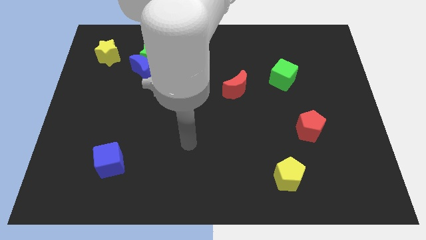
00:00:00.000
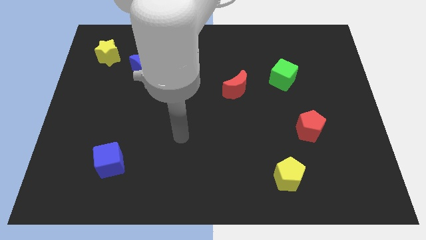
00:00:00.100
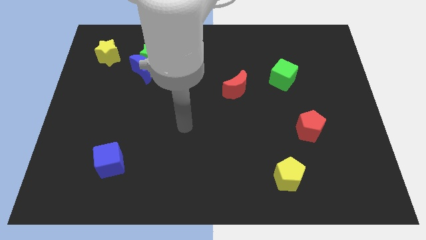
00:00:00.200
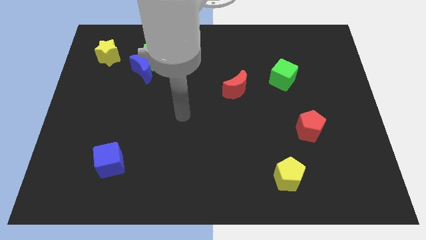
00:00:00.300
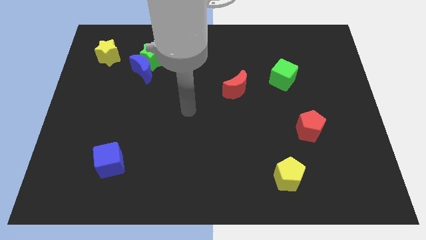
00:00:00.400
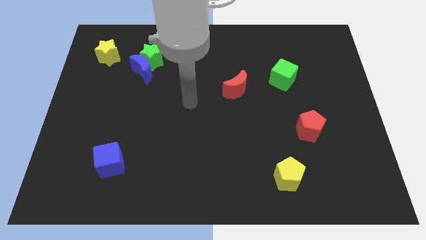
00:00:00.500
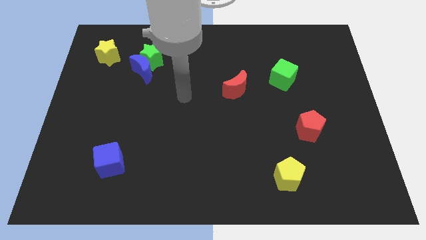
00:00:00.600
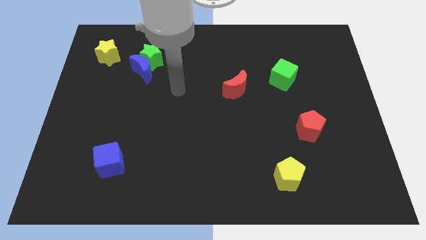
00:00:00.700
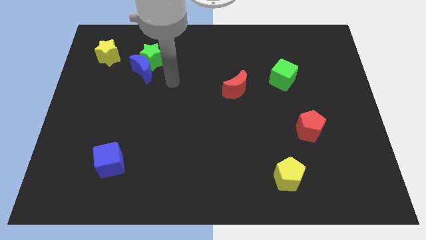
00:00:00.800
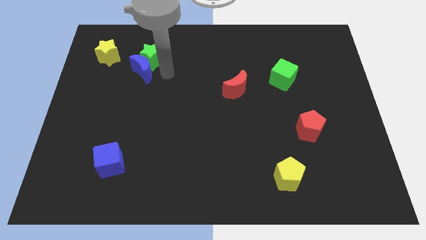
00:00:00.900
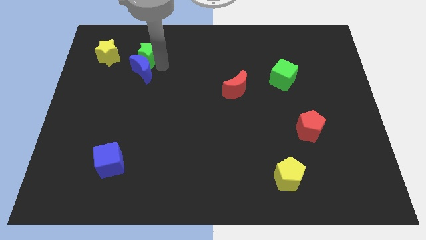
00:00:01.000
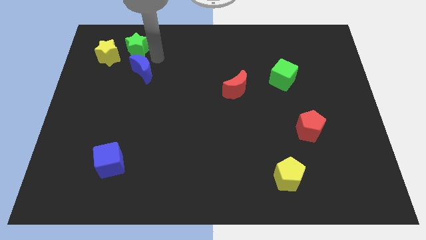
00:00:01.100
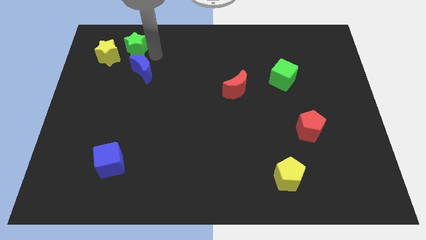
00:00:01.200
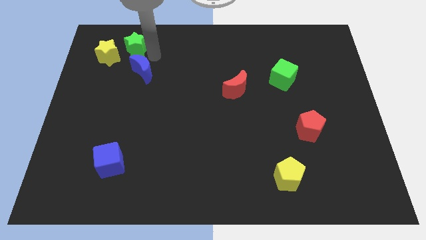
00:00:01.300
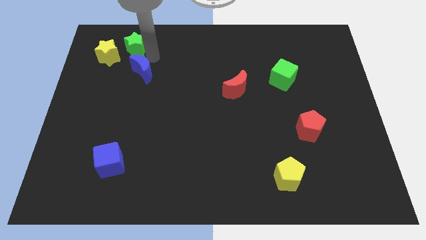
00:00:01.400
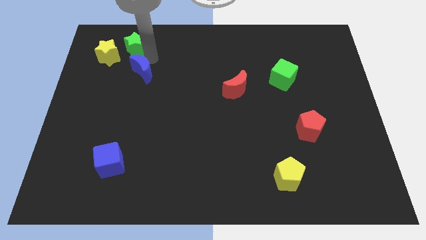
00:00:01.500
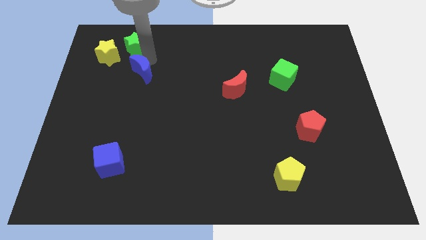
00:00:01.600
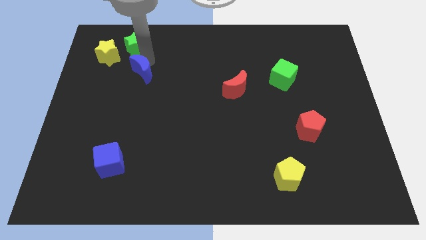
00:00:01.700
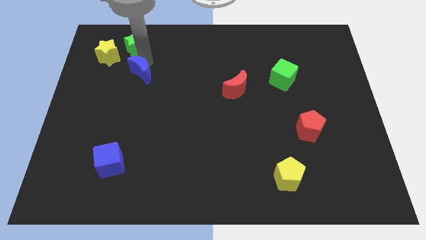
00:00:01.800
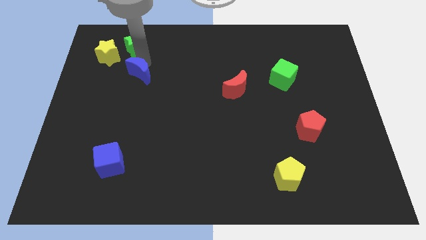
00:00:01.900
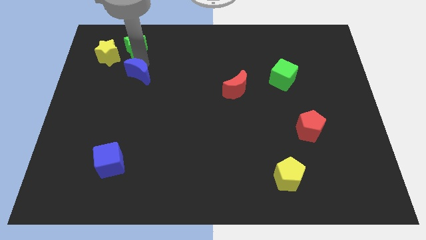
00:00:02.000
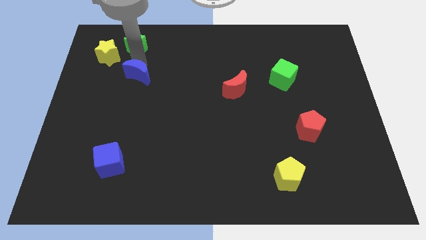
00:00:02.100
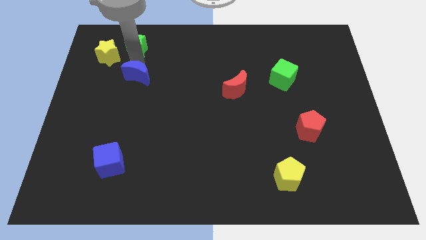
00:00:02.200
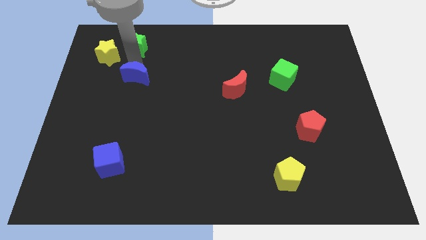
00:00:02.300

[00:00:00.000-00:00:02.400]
move the blue moon away from the green star

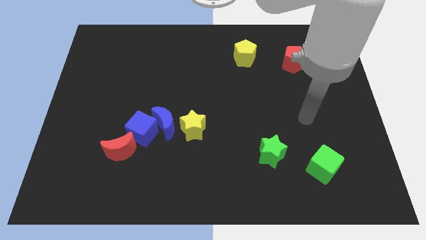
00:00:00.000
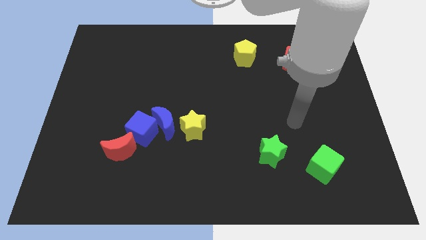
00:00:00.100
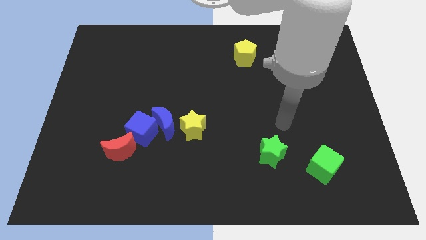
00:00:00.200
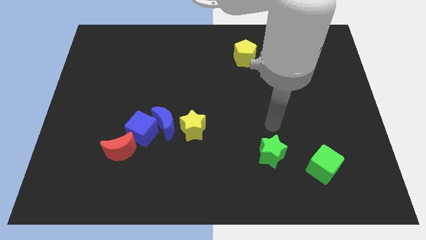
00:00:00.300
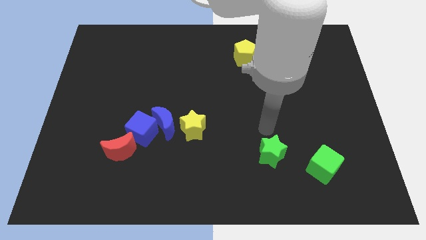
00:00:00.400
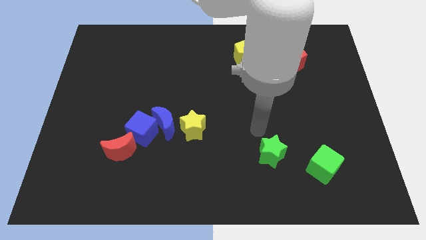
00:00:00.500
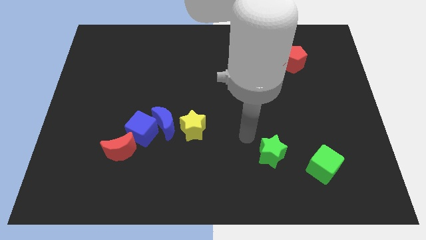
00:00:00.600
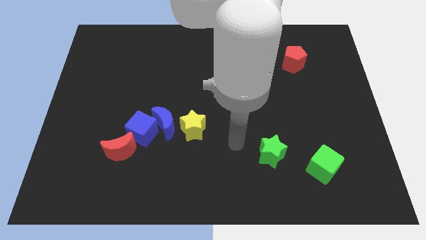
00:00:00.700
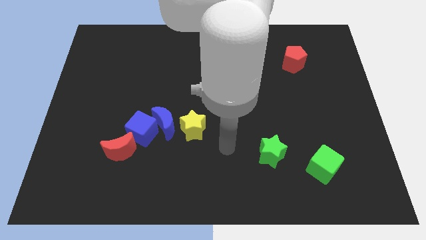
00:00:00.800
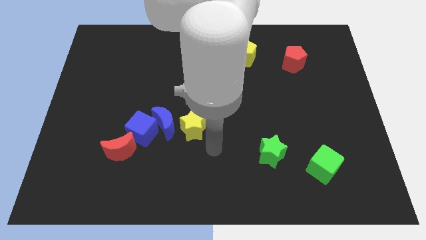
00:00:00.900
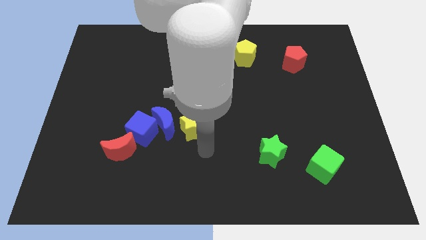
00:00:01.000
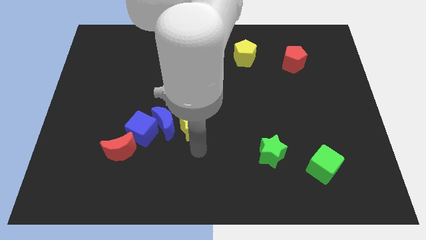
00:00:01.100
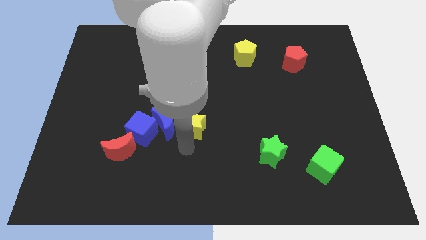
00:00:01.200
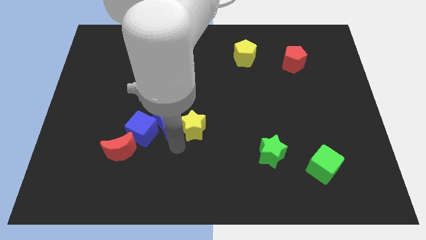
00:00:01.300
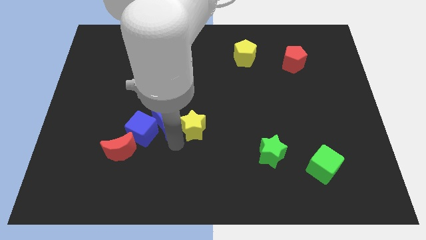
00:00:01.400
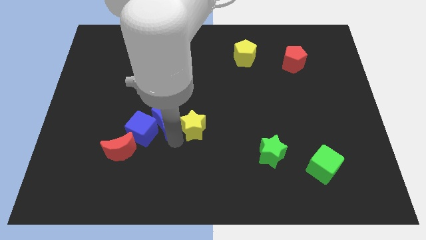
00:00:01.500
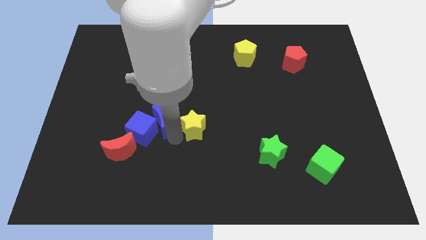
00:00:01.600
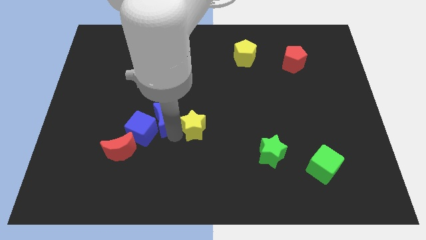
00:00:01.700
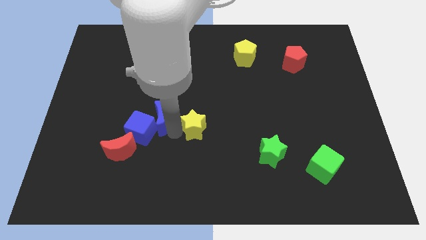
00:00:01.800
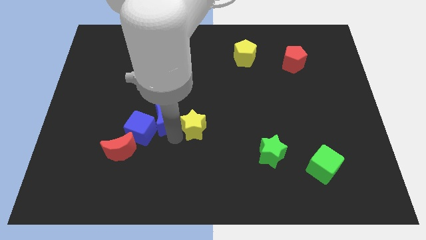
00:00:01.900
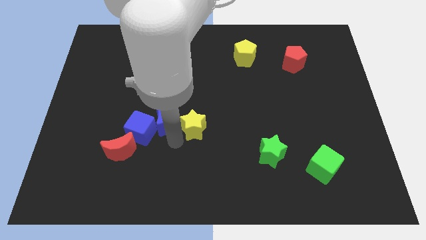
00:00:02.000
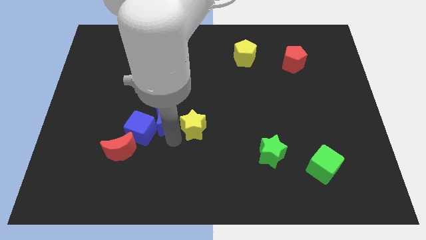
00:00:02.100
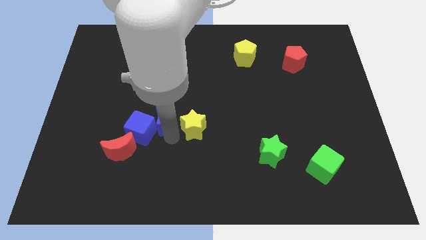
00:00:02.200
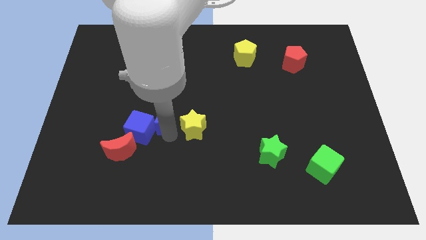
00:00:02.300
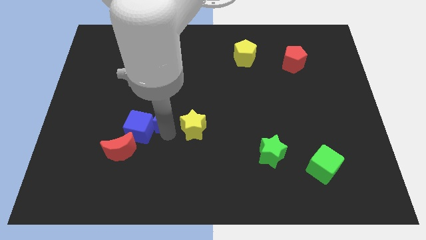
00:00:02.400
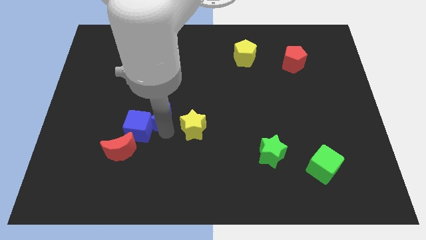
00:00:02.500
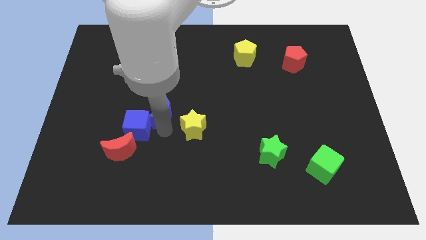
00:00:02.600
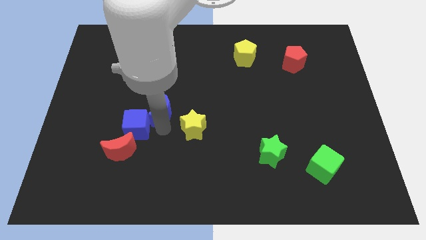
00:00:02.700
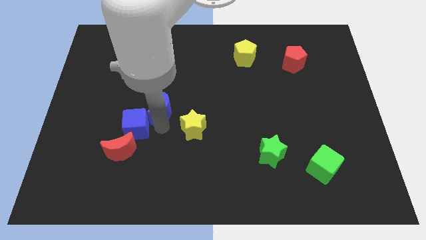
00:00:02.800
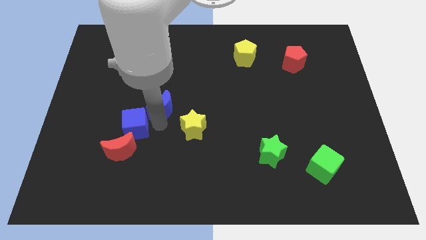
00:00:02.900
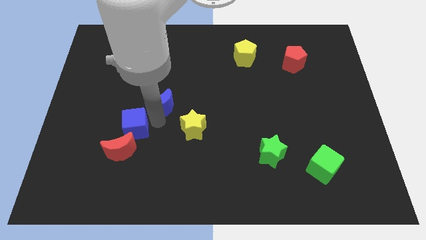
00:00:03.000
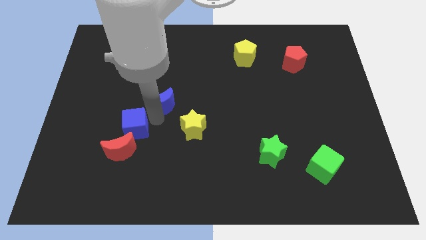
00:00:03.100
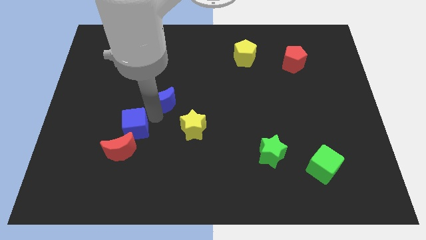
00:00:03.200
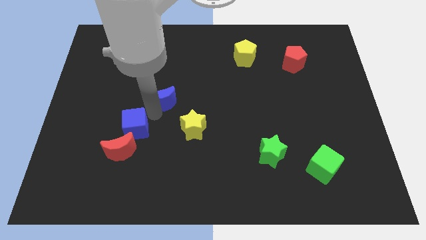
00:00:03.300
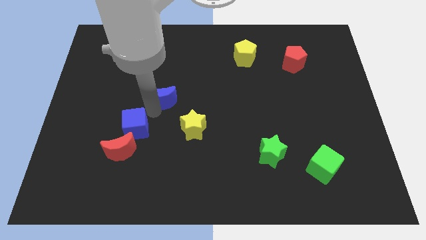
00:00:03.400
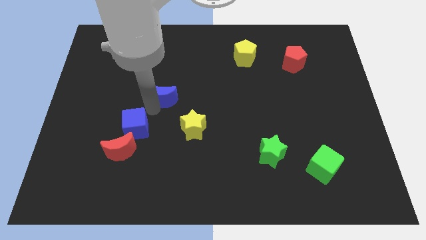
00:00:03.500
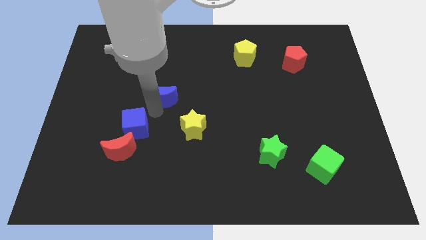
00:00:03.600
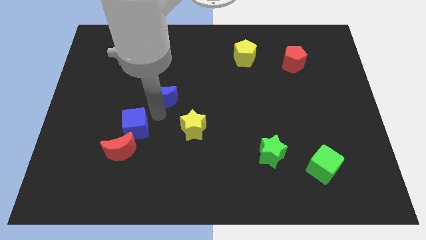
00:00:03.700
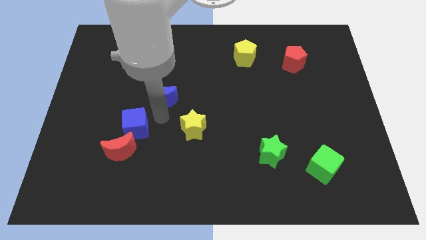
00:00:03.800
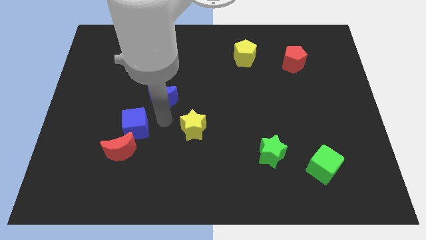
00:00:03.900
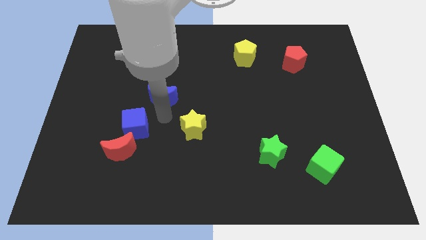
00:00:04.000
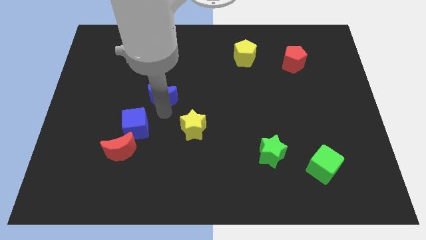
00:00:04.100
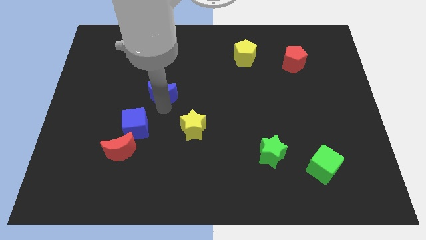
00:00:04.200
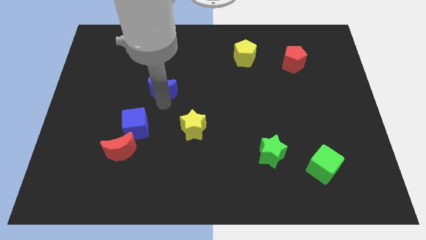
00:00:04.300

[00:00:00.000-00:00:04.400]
move the blue moon away from the blue cube and yellow star

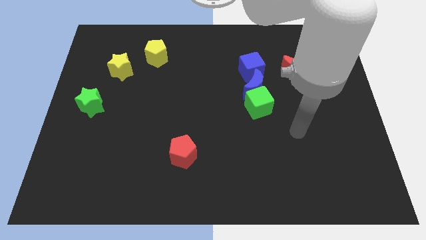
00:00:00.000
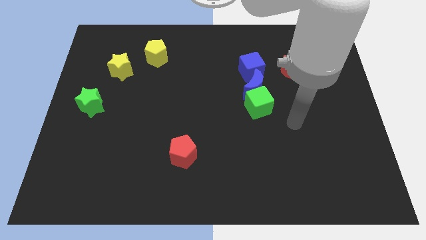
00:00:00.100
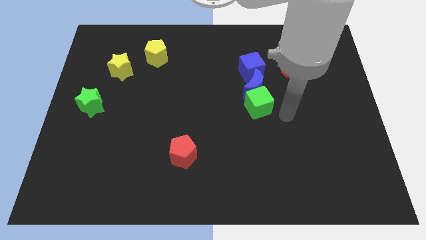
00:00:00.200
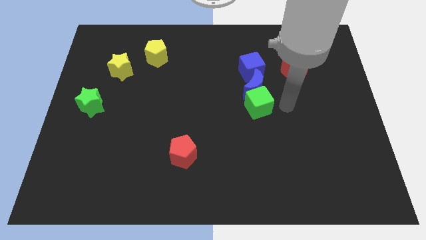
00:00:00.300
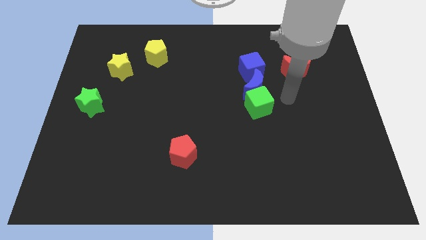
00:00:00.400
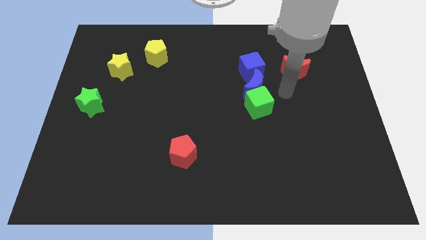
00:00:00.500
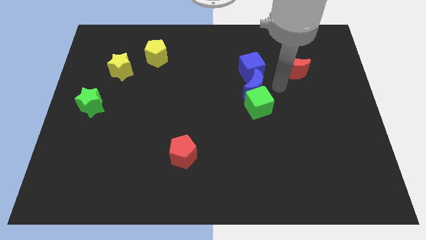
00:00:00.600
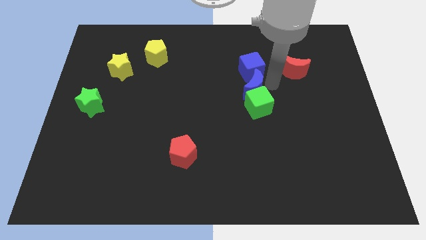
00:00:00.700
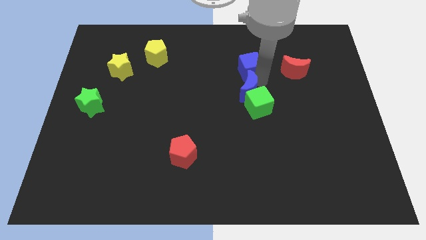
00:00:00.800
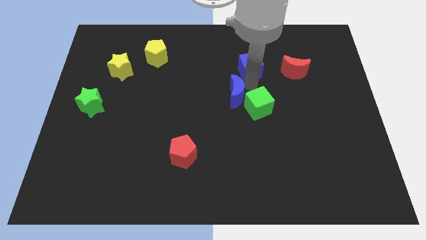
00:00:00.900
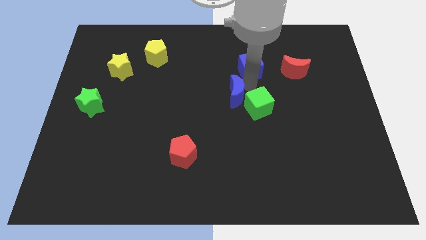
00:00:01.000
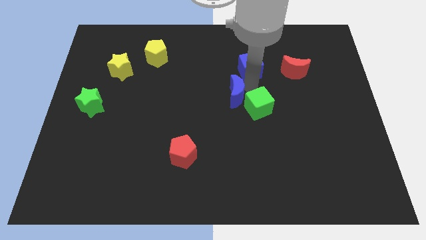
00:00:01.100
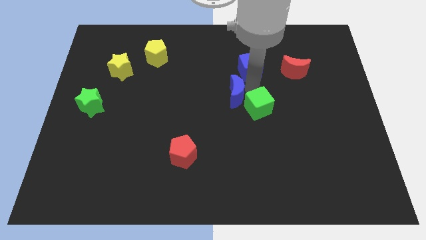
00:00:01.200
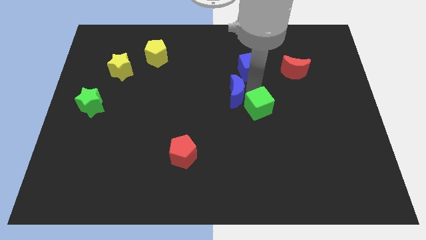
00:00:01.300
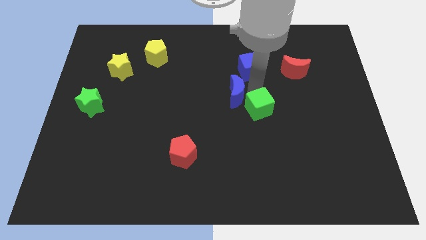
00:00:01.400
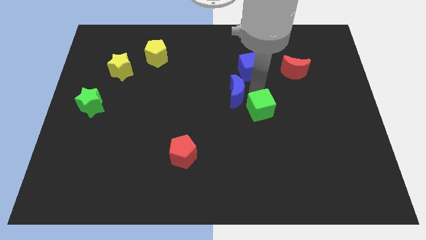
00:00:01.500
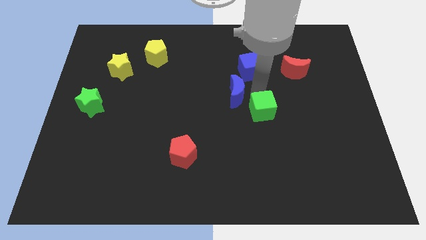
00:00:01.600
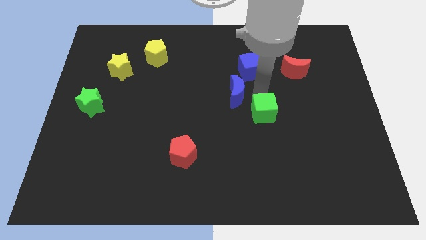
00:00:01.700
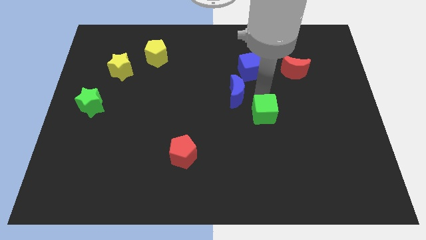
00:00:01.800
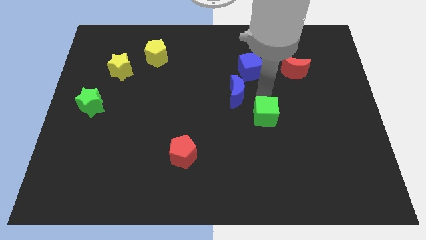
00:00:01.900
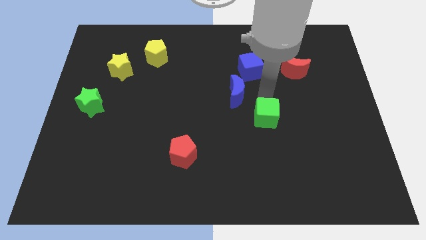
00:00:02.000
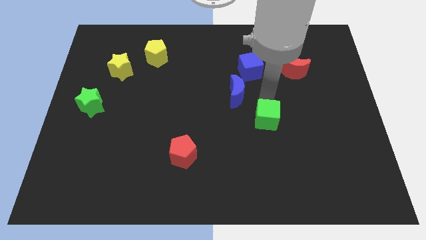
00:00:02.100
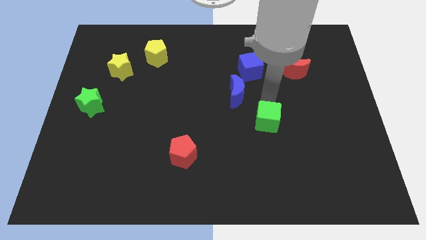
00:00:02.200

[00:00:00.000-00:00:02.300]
pull the green cube apart from the blue moon

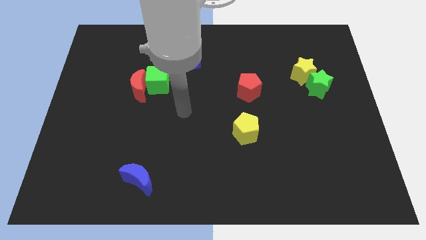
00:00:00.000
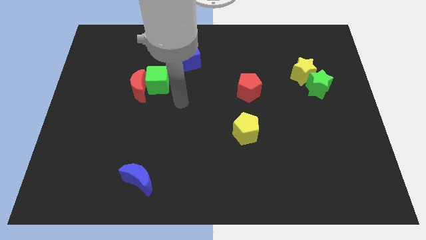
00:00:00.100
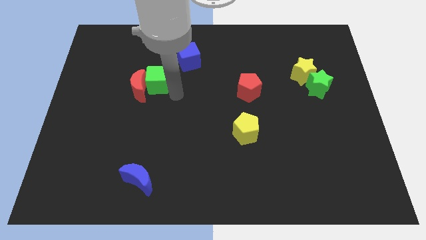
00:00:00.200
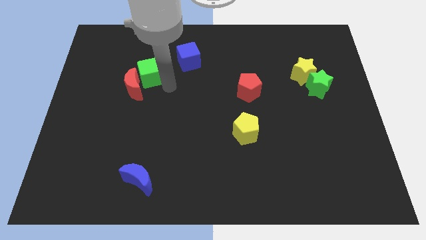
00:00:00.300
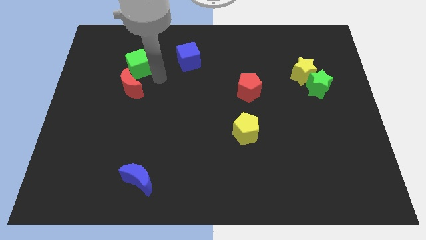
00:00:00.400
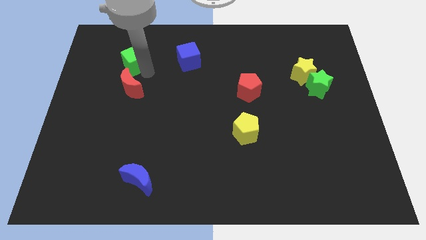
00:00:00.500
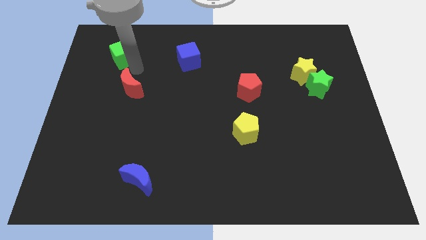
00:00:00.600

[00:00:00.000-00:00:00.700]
separate the red moon from the green cube
